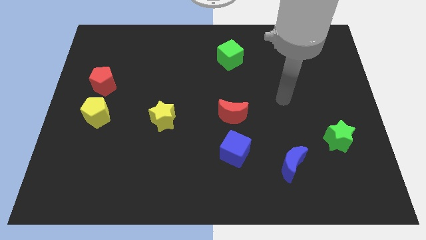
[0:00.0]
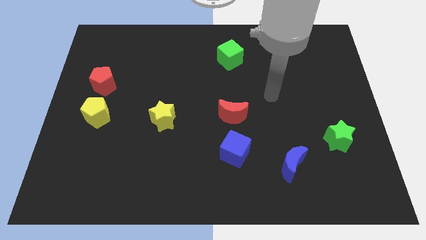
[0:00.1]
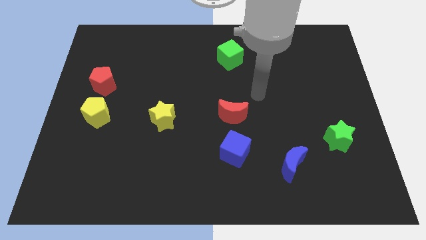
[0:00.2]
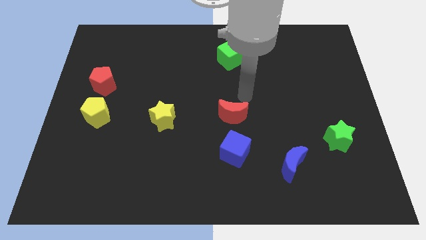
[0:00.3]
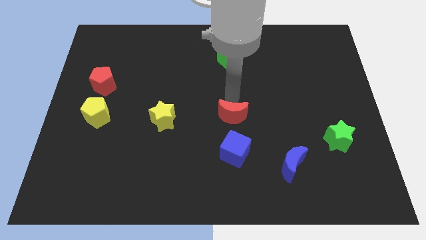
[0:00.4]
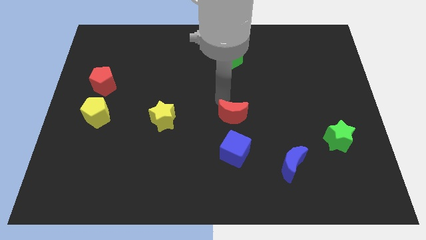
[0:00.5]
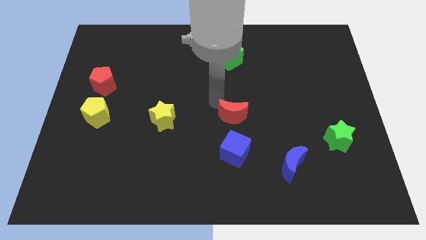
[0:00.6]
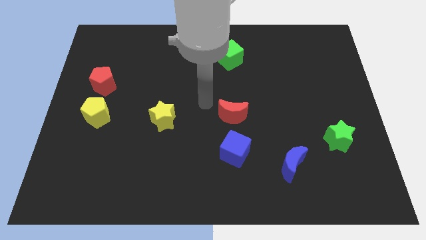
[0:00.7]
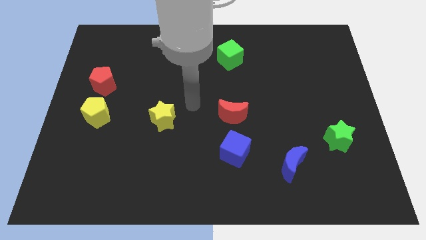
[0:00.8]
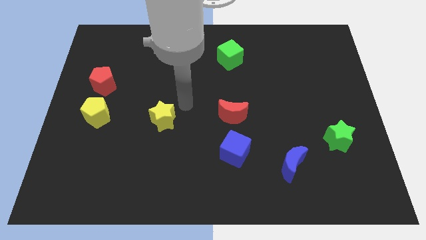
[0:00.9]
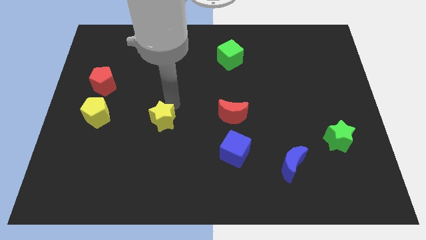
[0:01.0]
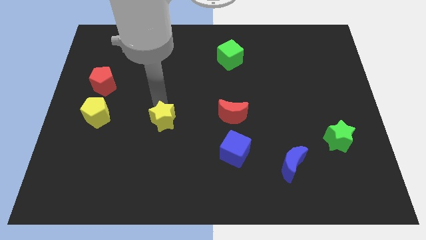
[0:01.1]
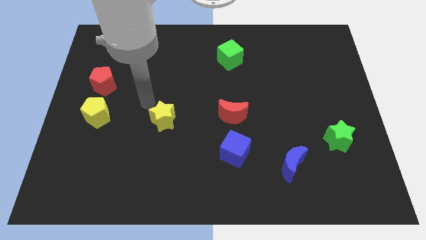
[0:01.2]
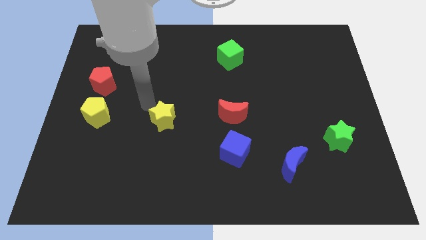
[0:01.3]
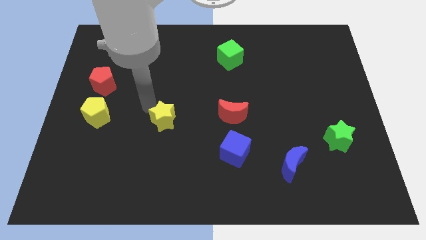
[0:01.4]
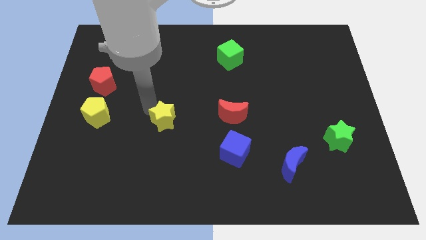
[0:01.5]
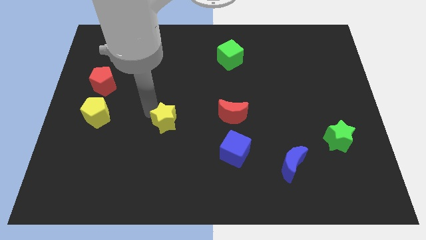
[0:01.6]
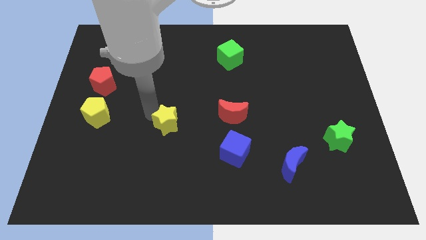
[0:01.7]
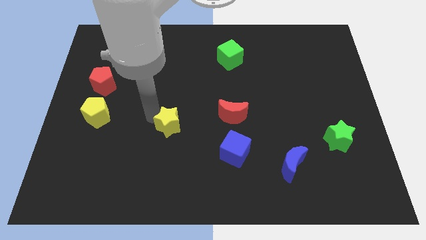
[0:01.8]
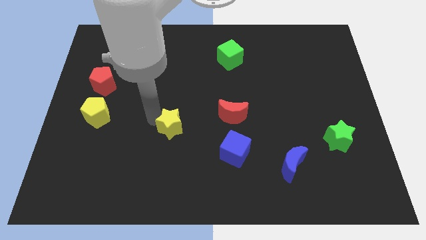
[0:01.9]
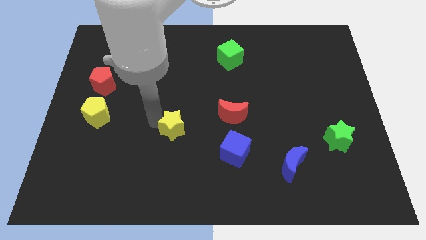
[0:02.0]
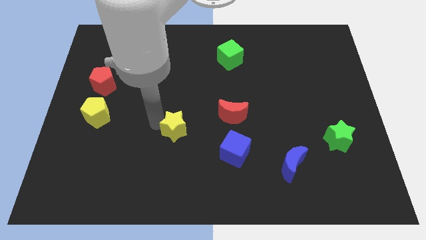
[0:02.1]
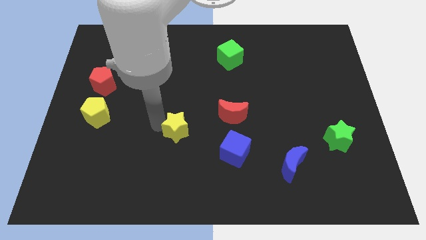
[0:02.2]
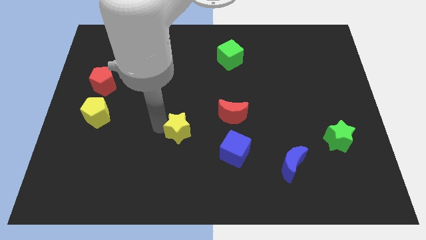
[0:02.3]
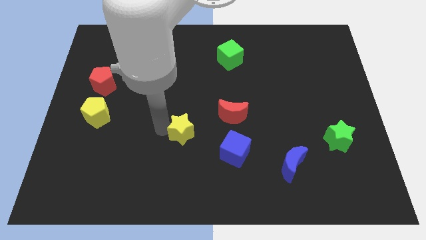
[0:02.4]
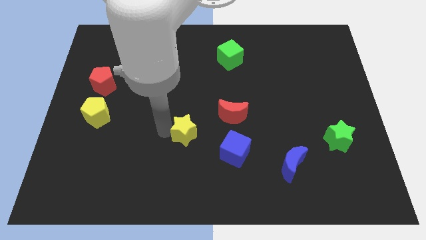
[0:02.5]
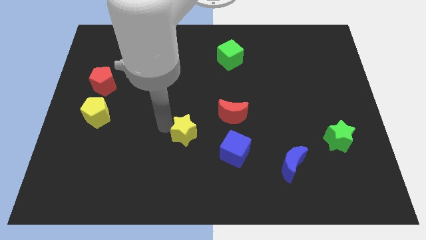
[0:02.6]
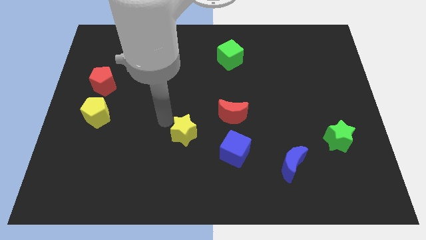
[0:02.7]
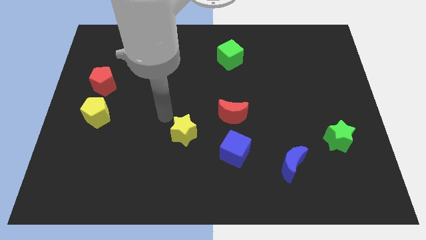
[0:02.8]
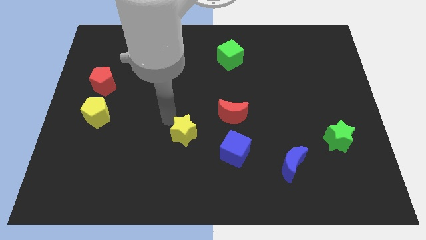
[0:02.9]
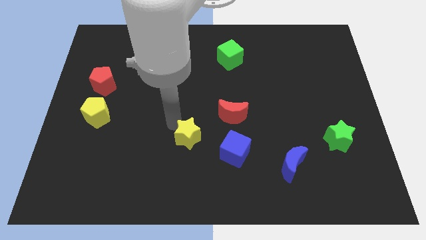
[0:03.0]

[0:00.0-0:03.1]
move the yellow star down and right diagonally somewhat

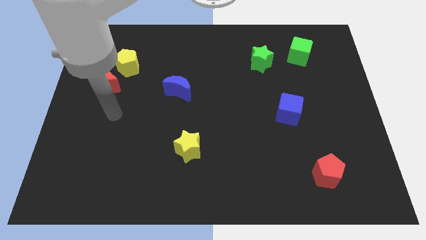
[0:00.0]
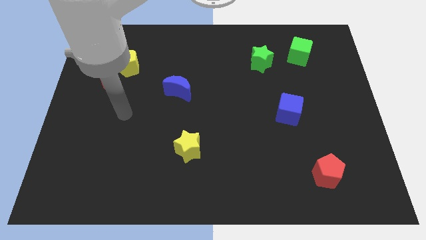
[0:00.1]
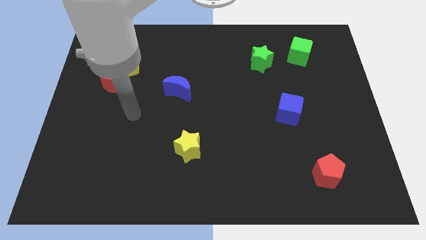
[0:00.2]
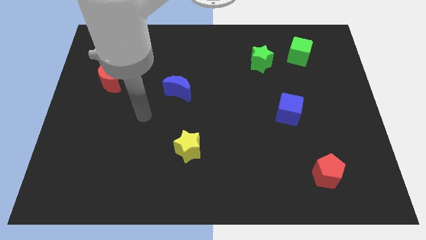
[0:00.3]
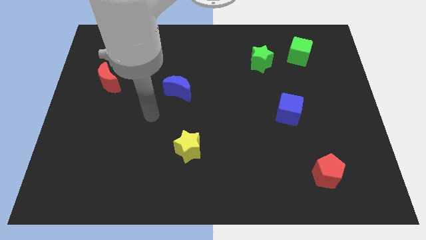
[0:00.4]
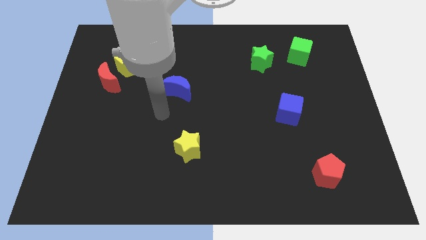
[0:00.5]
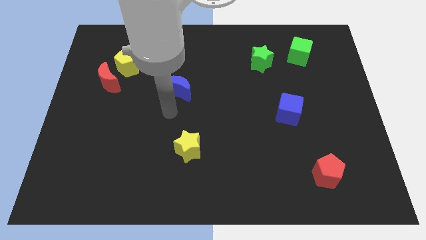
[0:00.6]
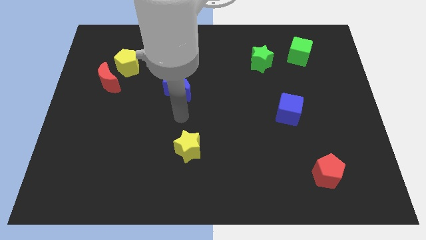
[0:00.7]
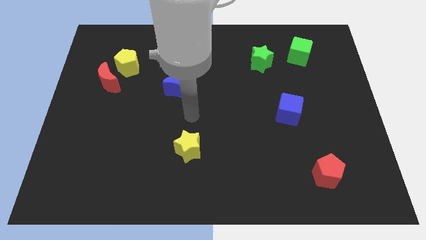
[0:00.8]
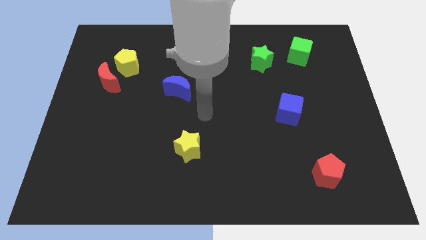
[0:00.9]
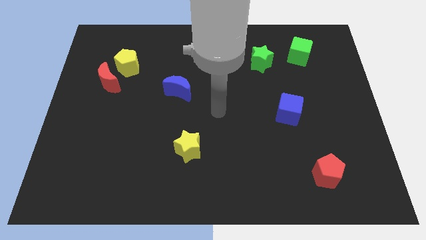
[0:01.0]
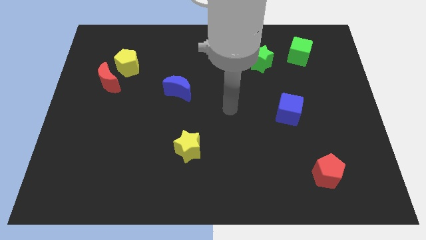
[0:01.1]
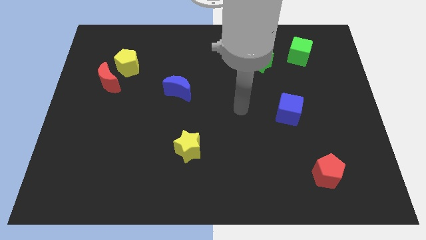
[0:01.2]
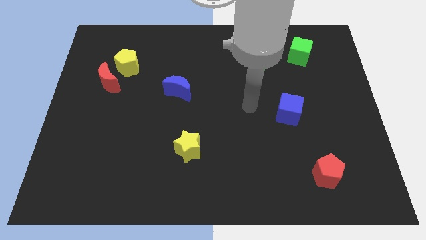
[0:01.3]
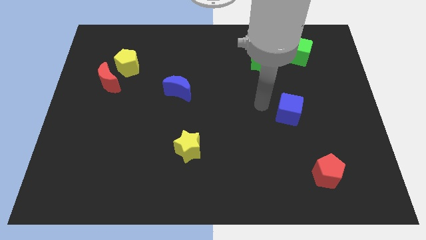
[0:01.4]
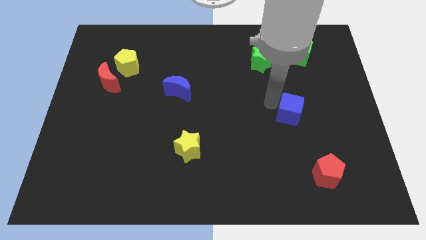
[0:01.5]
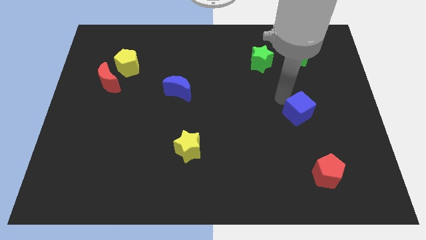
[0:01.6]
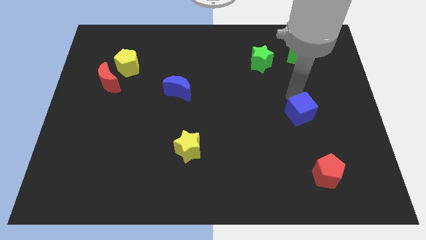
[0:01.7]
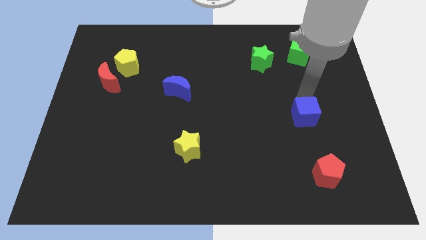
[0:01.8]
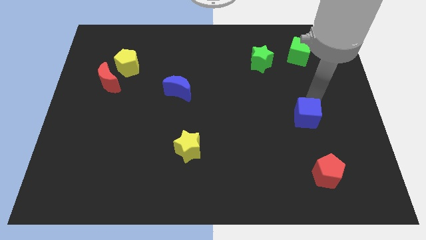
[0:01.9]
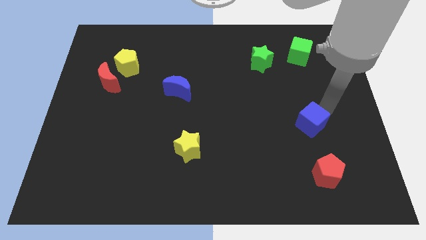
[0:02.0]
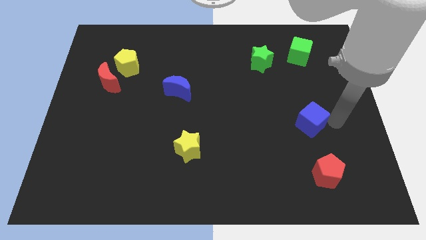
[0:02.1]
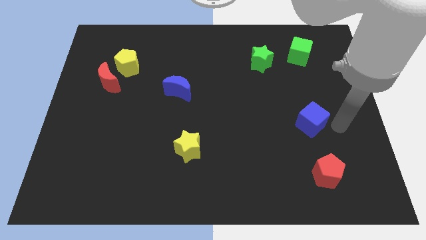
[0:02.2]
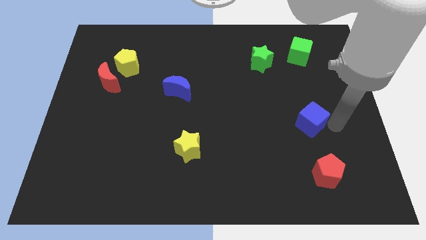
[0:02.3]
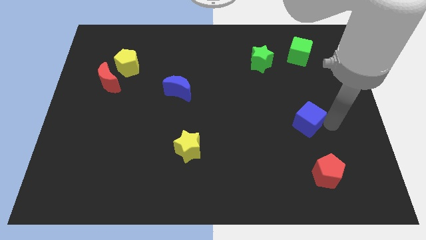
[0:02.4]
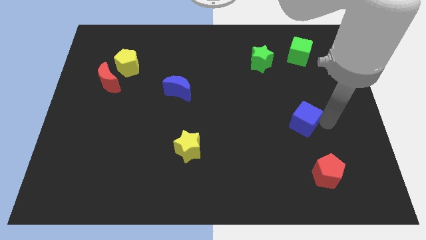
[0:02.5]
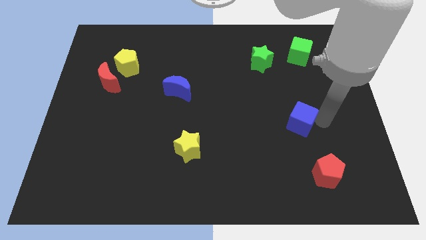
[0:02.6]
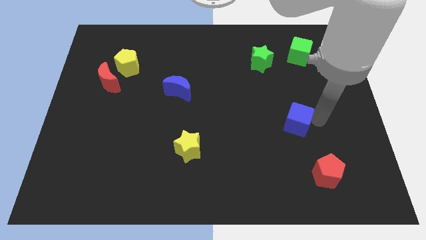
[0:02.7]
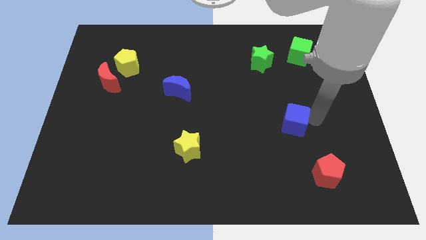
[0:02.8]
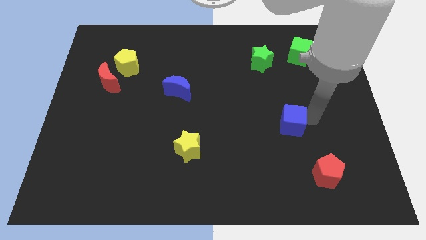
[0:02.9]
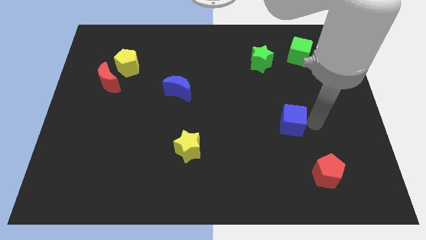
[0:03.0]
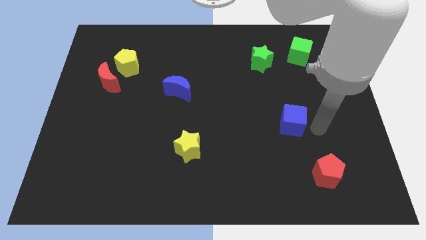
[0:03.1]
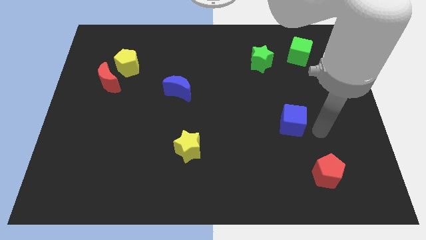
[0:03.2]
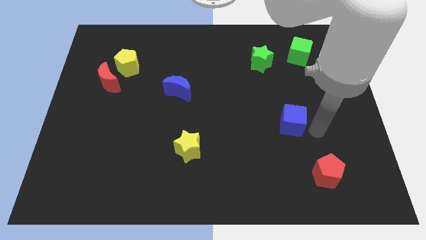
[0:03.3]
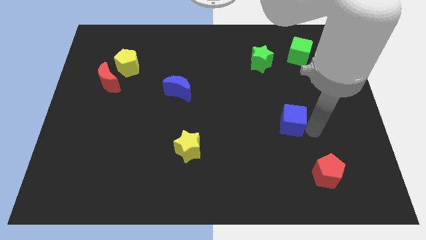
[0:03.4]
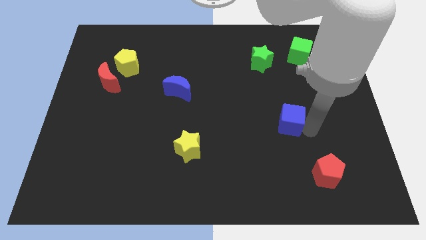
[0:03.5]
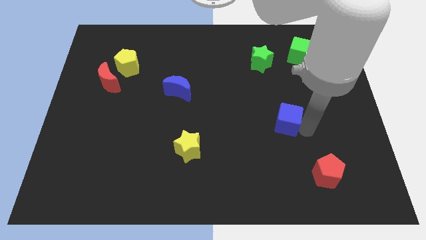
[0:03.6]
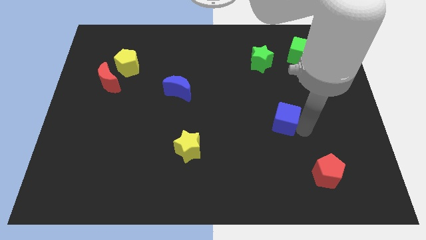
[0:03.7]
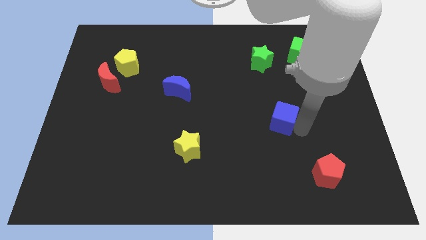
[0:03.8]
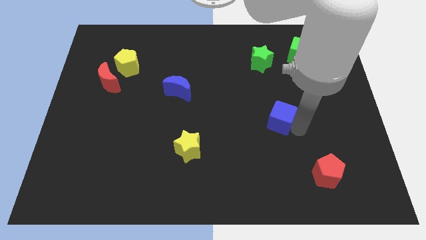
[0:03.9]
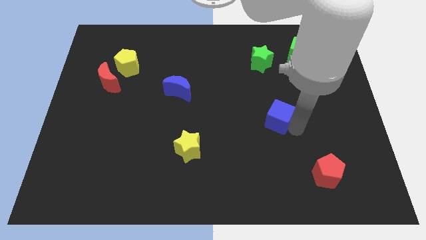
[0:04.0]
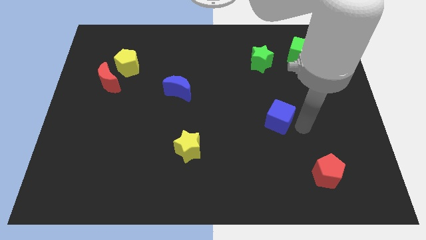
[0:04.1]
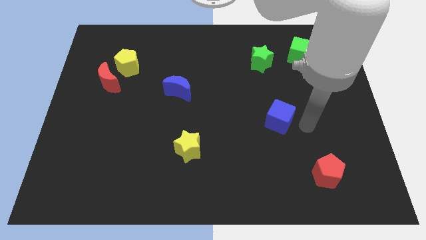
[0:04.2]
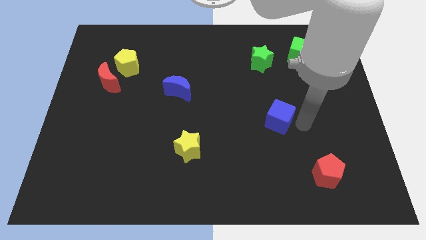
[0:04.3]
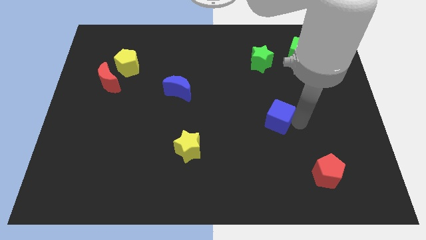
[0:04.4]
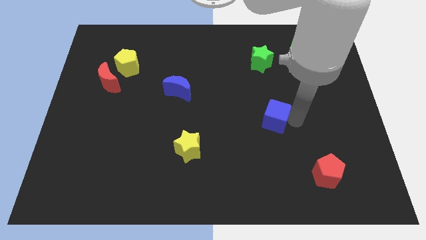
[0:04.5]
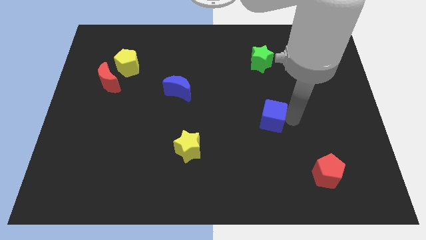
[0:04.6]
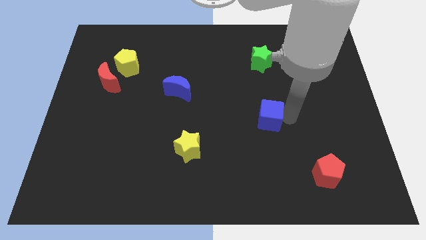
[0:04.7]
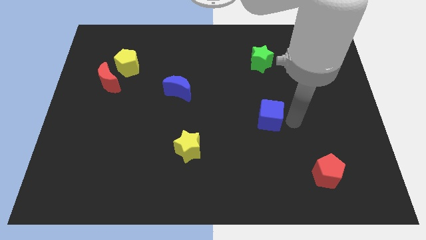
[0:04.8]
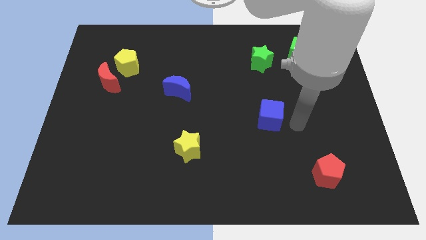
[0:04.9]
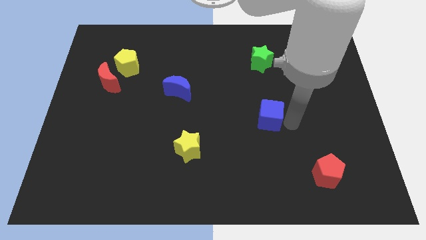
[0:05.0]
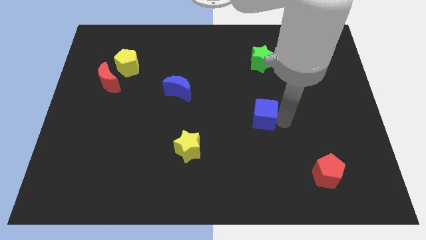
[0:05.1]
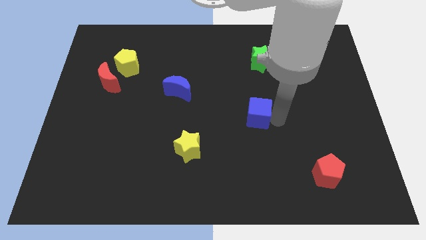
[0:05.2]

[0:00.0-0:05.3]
move the blue cube left slightly
